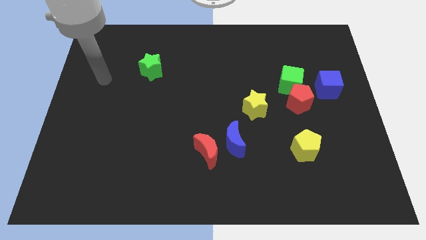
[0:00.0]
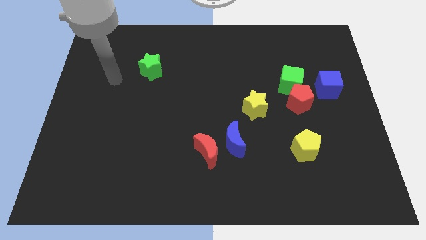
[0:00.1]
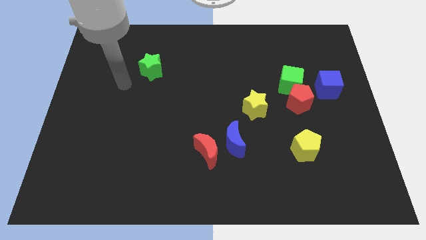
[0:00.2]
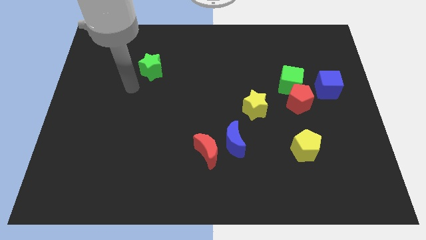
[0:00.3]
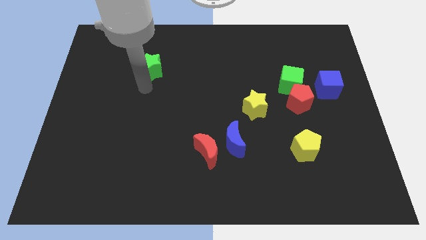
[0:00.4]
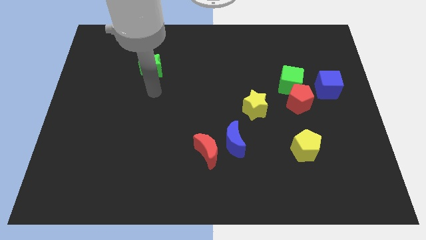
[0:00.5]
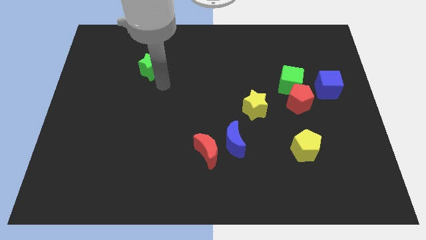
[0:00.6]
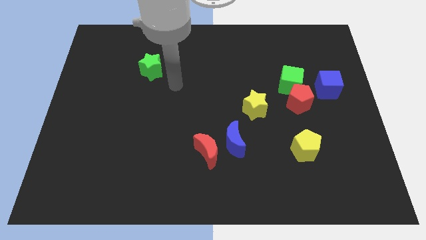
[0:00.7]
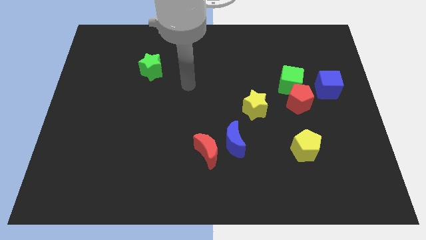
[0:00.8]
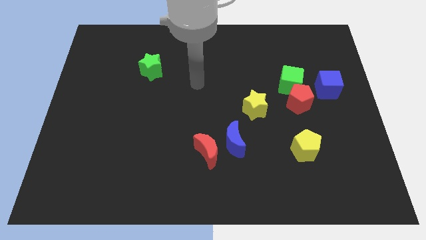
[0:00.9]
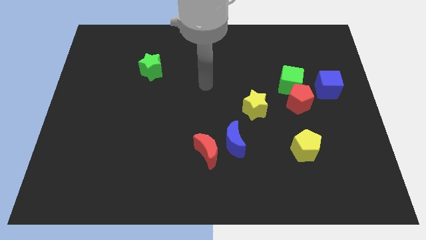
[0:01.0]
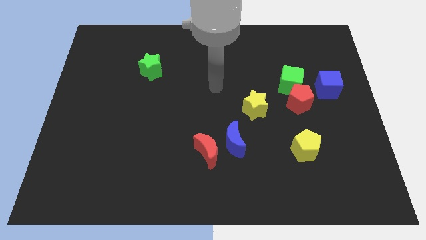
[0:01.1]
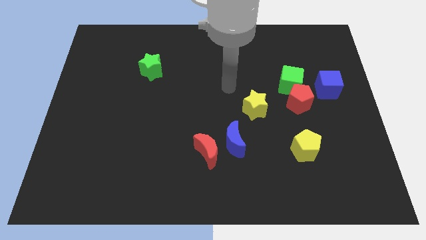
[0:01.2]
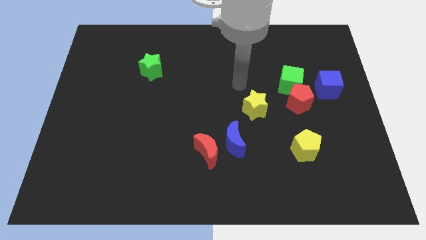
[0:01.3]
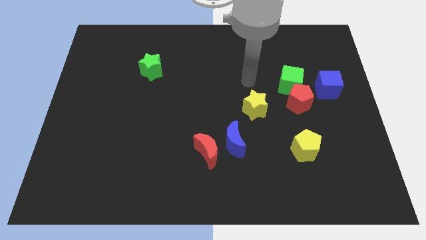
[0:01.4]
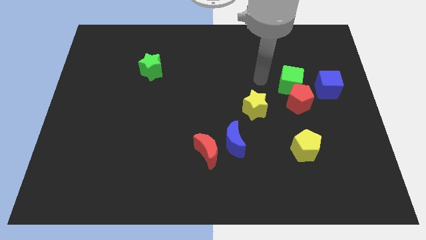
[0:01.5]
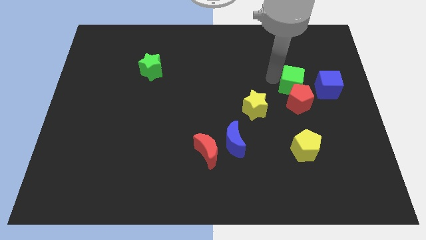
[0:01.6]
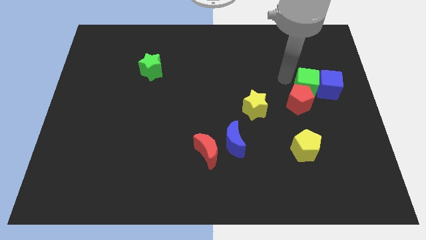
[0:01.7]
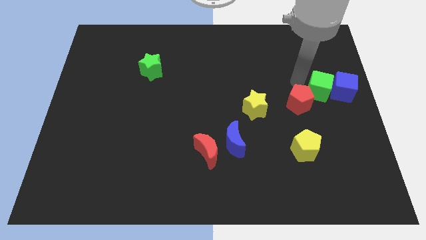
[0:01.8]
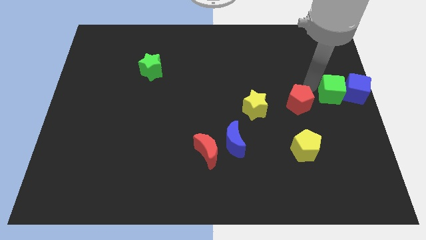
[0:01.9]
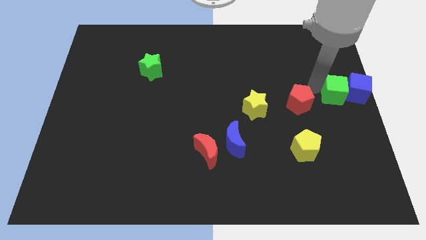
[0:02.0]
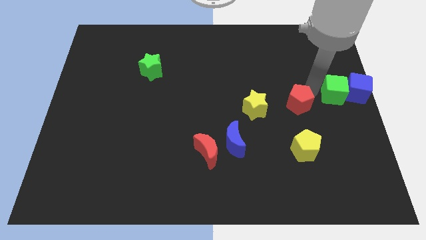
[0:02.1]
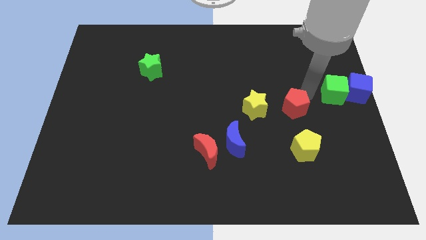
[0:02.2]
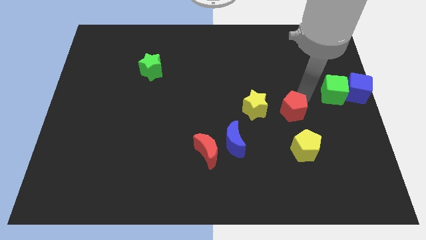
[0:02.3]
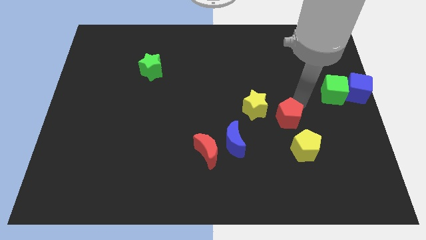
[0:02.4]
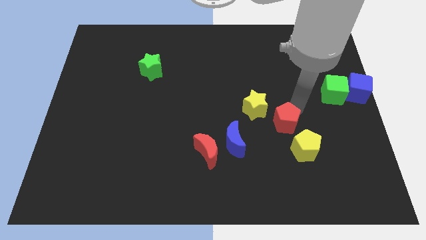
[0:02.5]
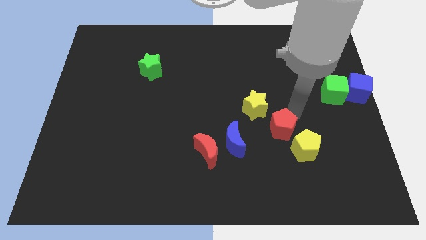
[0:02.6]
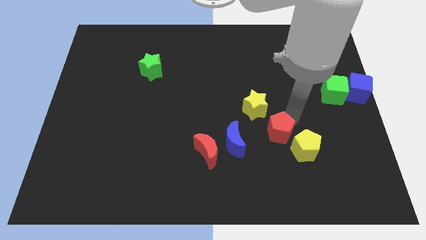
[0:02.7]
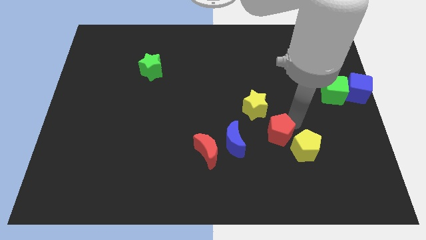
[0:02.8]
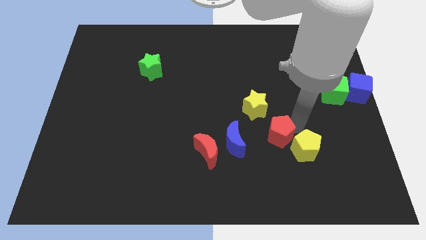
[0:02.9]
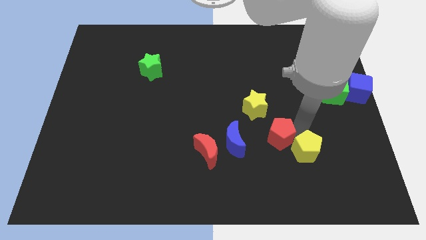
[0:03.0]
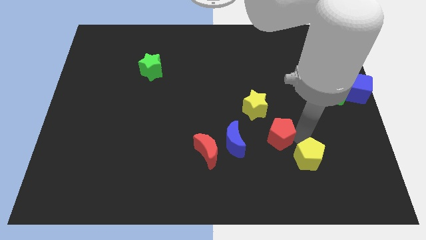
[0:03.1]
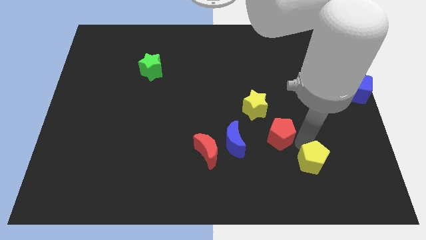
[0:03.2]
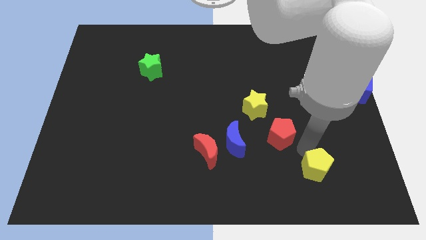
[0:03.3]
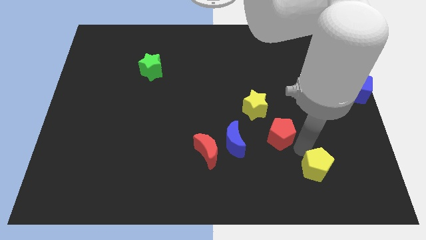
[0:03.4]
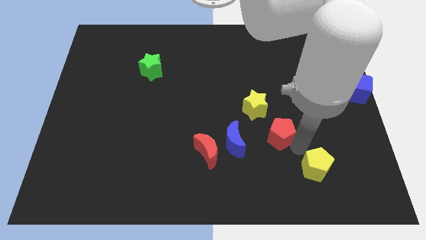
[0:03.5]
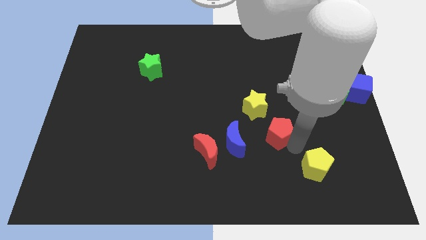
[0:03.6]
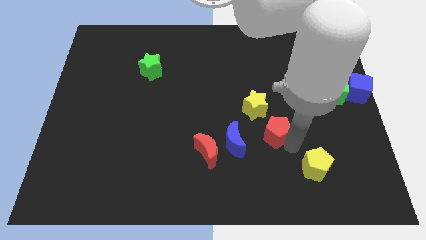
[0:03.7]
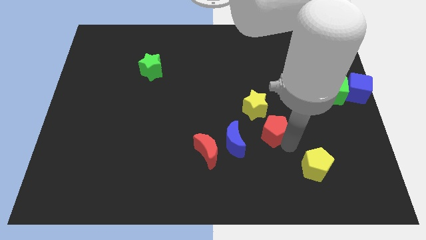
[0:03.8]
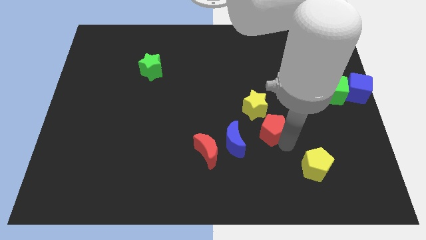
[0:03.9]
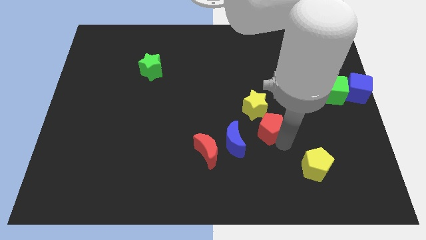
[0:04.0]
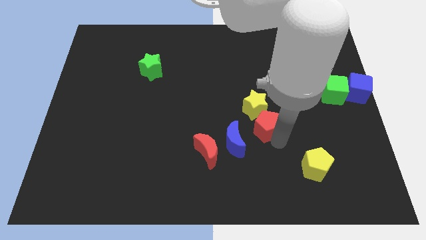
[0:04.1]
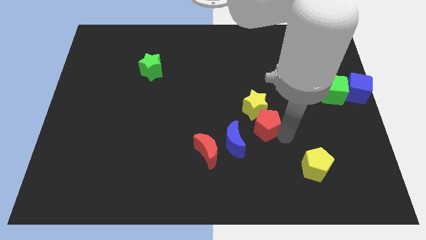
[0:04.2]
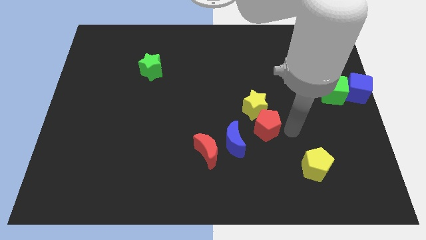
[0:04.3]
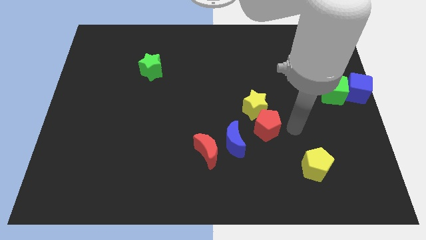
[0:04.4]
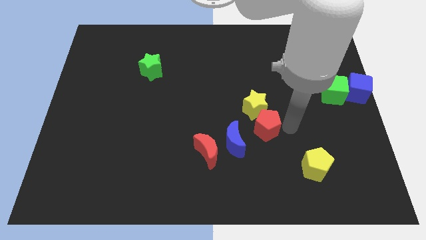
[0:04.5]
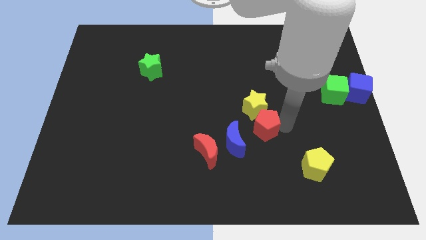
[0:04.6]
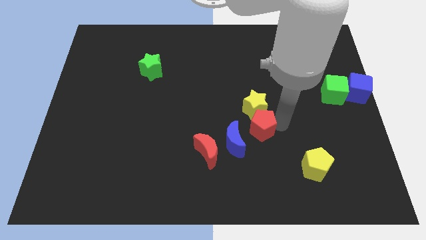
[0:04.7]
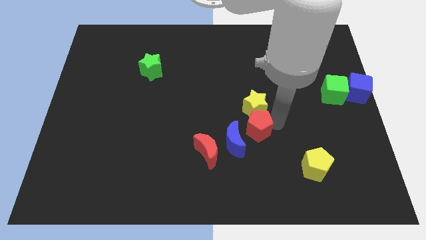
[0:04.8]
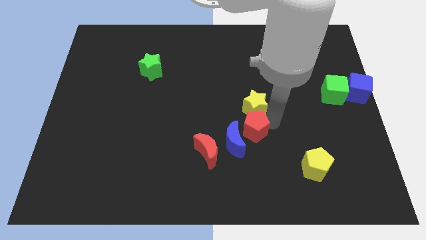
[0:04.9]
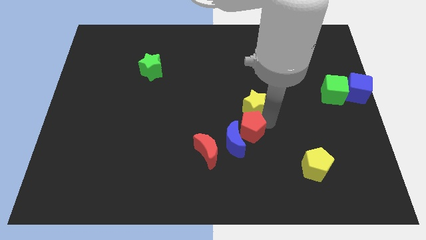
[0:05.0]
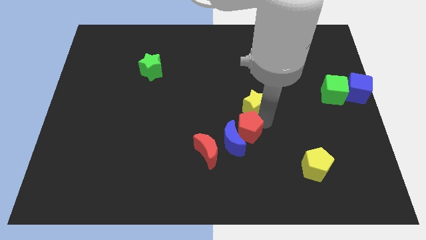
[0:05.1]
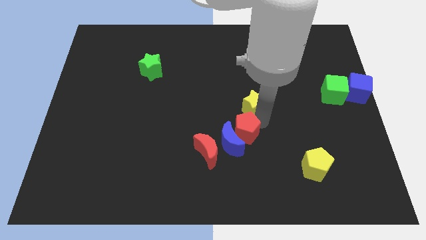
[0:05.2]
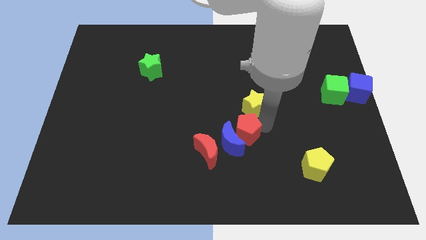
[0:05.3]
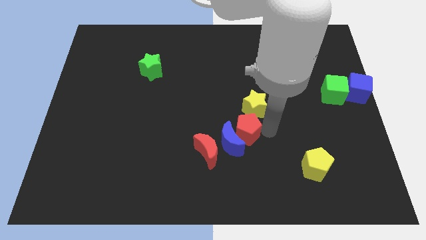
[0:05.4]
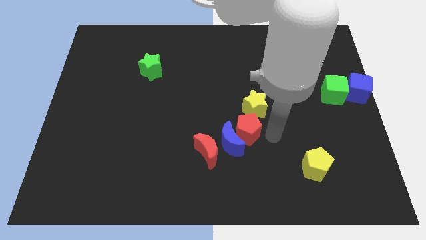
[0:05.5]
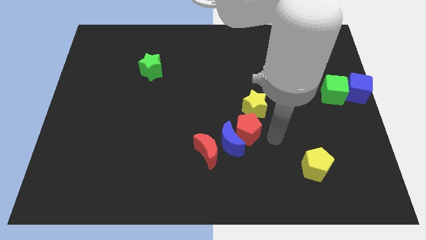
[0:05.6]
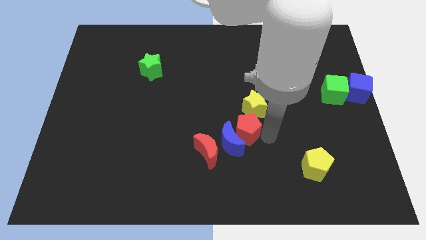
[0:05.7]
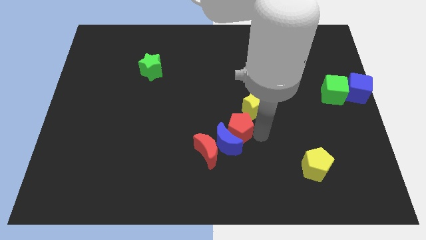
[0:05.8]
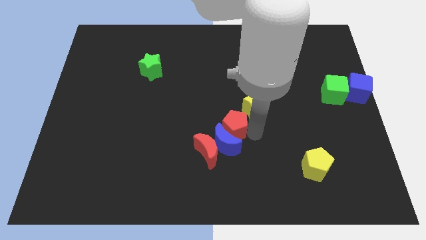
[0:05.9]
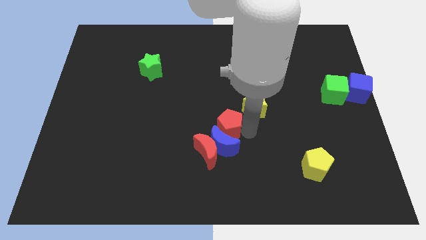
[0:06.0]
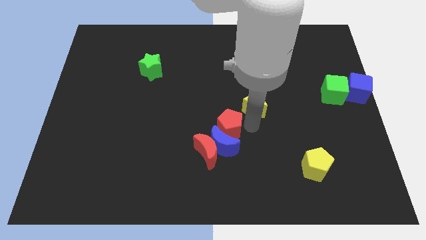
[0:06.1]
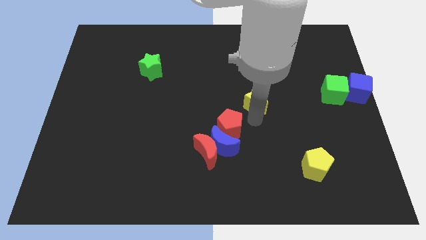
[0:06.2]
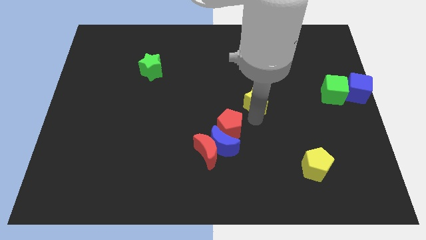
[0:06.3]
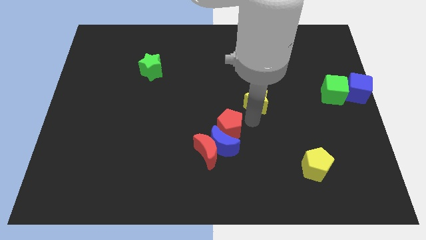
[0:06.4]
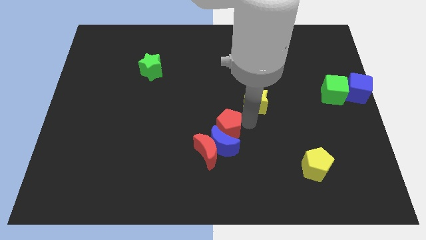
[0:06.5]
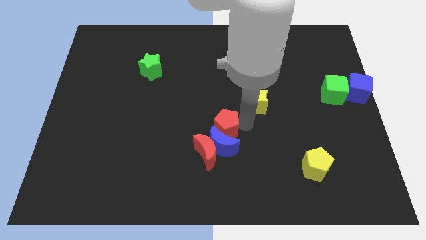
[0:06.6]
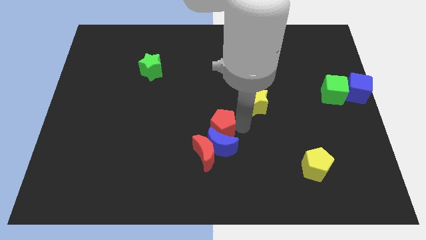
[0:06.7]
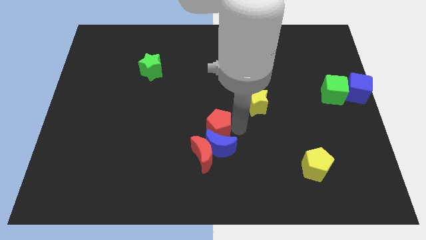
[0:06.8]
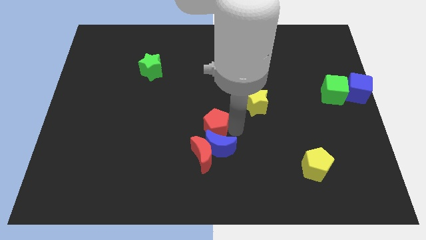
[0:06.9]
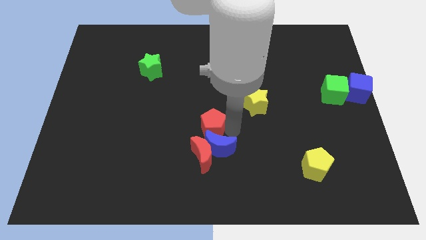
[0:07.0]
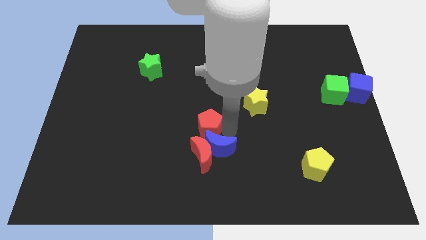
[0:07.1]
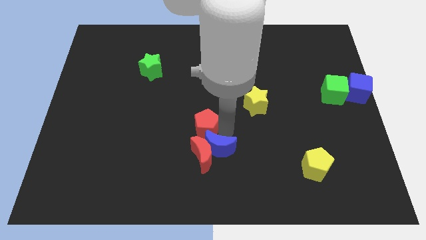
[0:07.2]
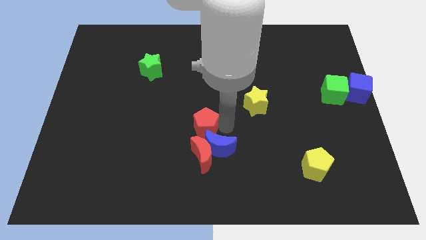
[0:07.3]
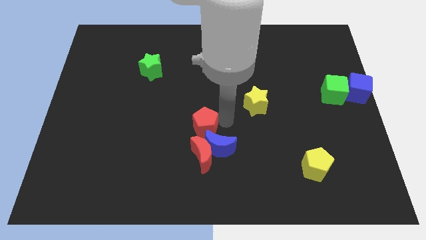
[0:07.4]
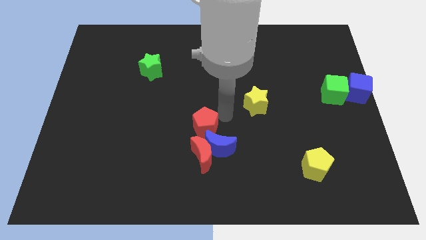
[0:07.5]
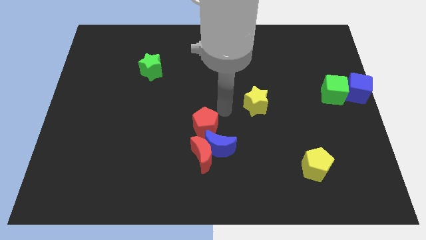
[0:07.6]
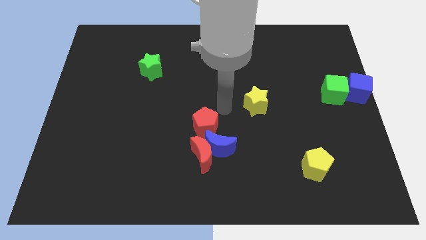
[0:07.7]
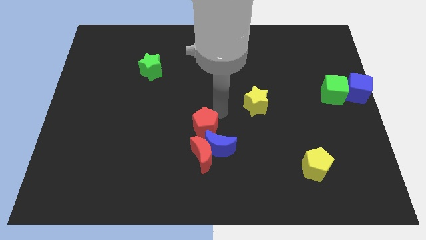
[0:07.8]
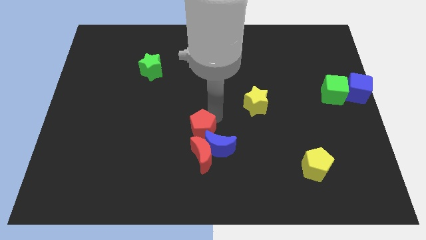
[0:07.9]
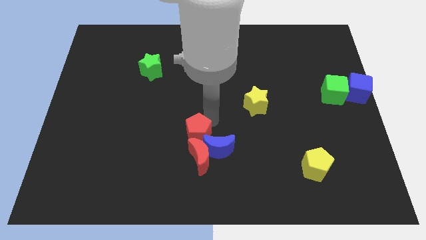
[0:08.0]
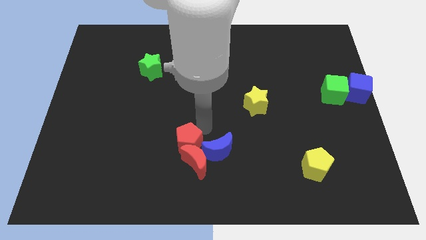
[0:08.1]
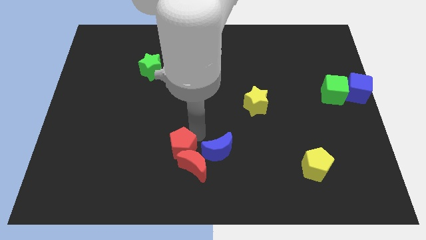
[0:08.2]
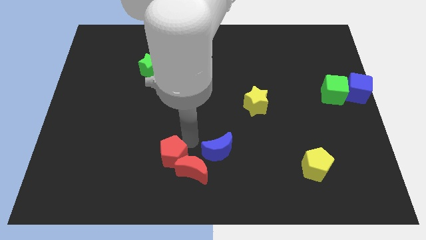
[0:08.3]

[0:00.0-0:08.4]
slide the red pentagon to the left of the red moon
